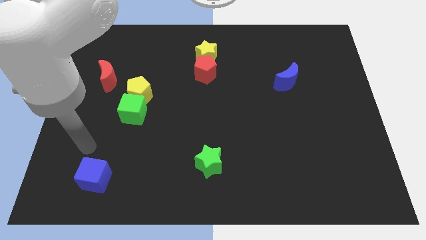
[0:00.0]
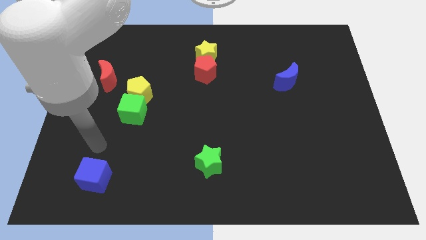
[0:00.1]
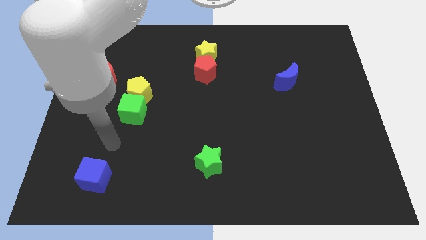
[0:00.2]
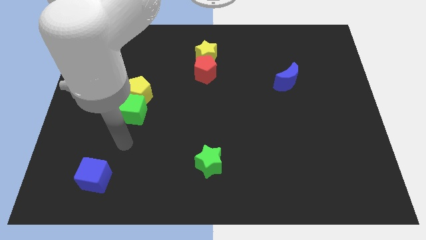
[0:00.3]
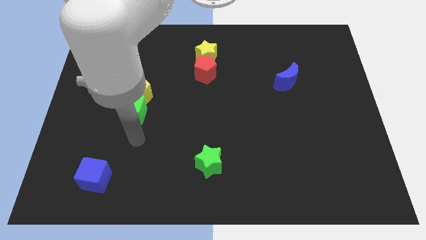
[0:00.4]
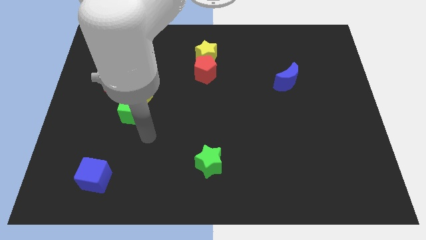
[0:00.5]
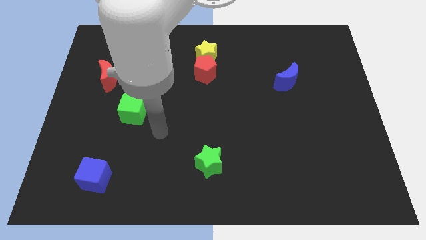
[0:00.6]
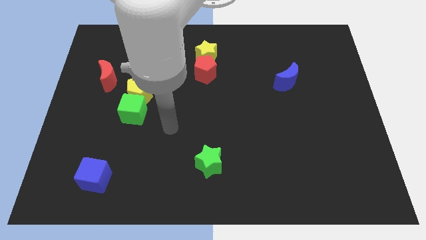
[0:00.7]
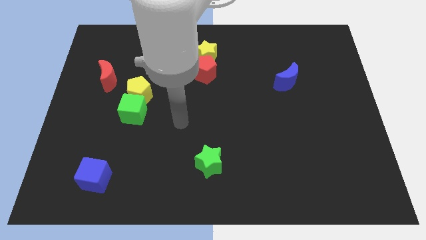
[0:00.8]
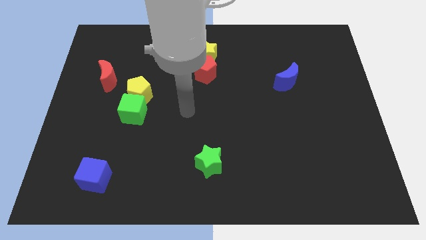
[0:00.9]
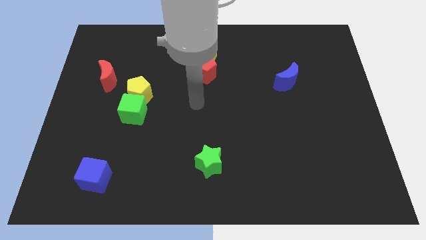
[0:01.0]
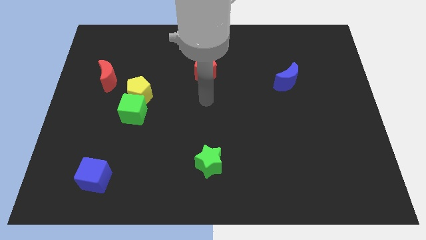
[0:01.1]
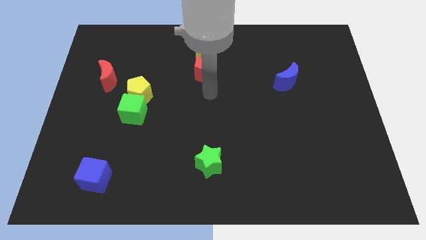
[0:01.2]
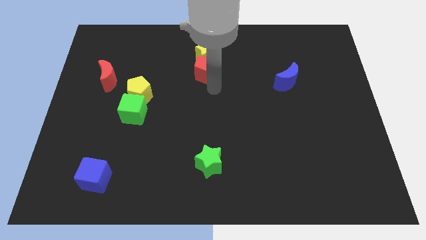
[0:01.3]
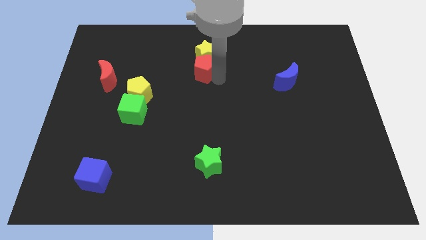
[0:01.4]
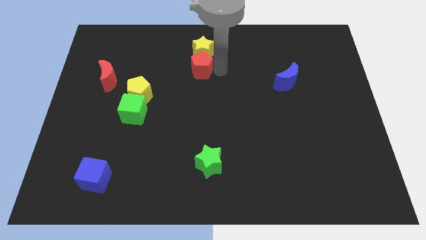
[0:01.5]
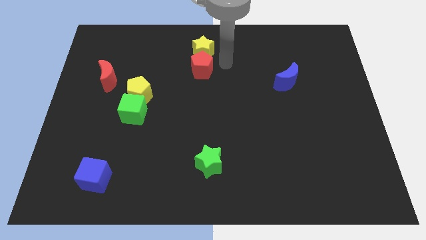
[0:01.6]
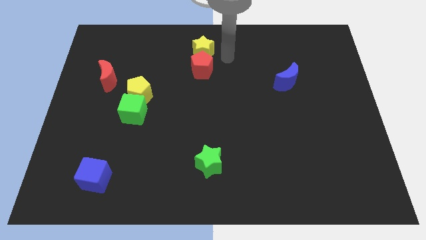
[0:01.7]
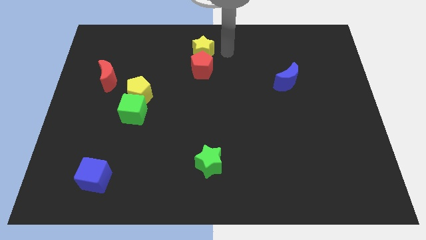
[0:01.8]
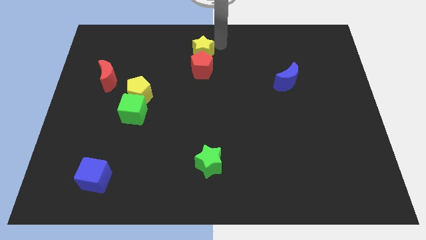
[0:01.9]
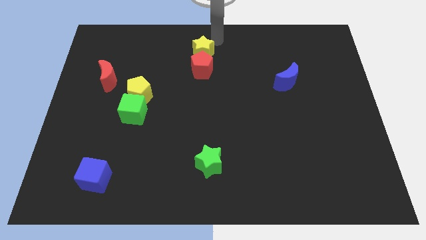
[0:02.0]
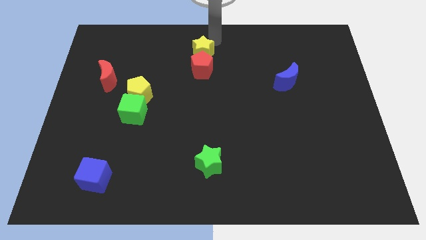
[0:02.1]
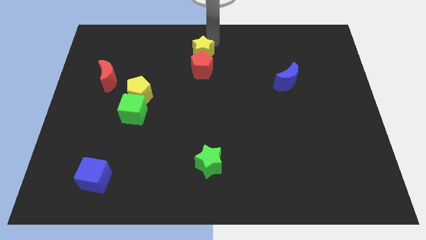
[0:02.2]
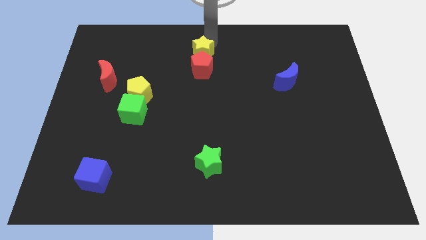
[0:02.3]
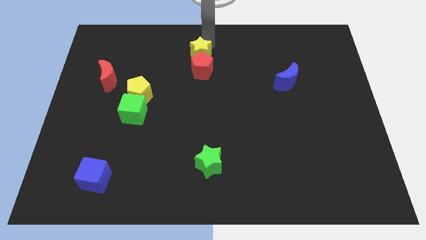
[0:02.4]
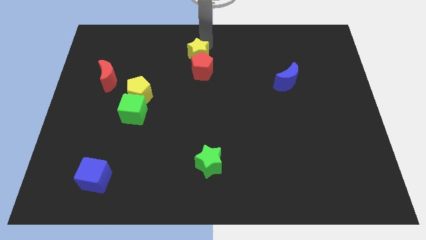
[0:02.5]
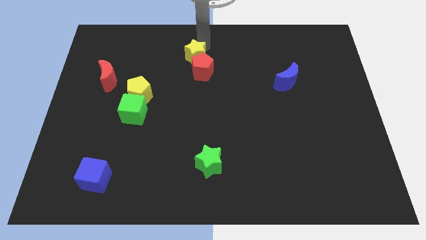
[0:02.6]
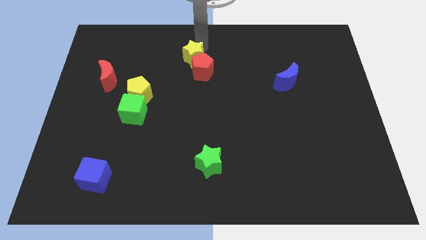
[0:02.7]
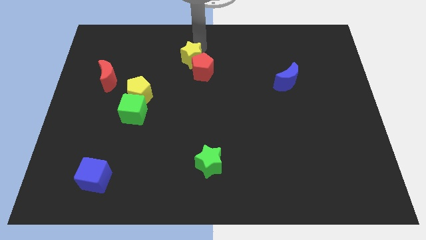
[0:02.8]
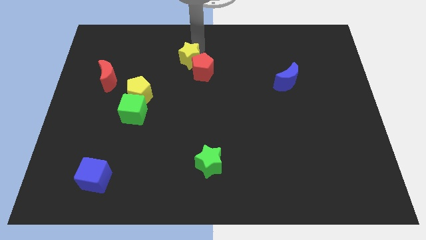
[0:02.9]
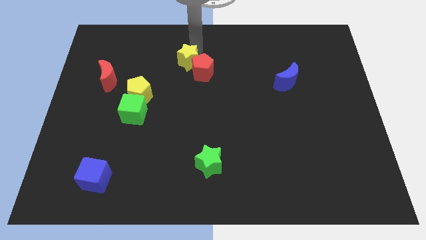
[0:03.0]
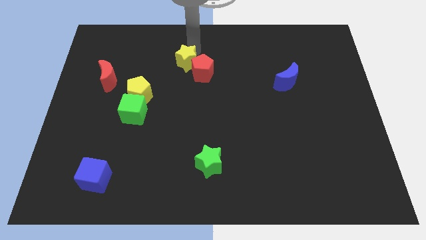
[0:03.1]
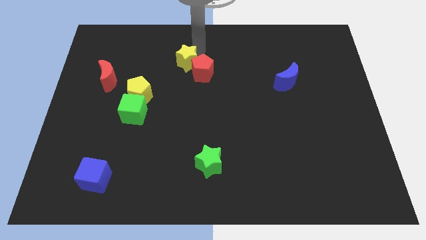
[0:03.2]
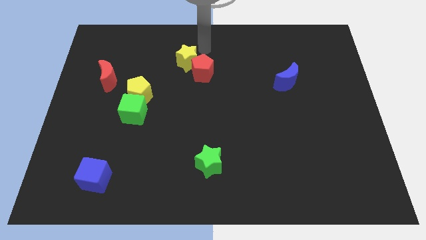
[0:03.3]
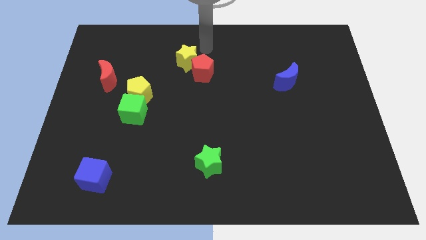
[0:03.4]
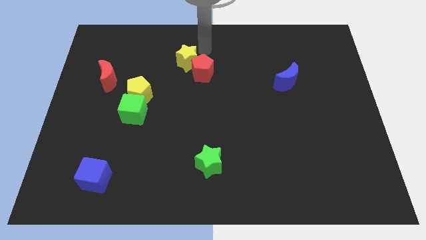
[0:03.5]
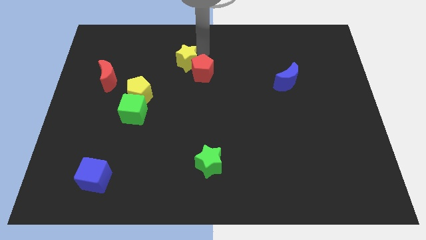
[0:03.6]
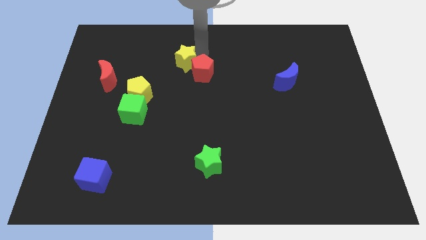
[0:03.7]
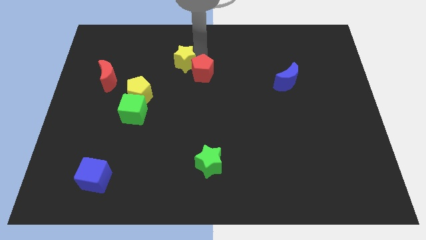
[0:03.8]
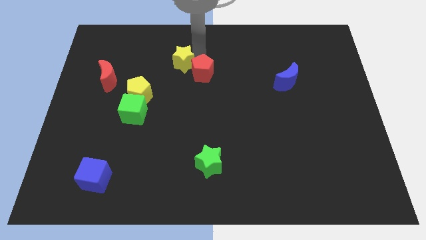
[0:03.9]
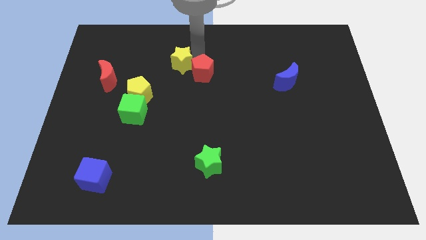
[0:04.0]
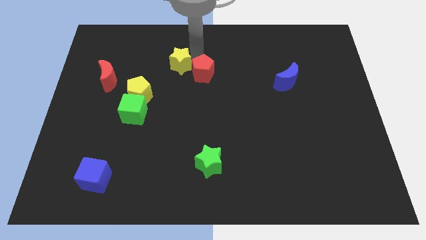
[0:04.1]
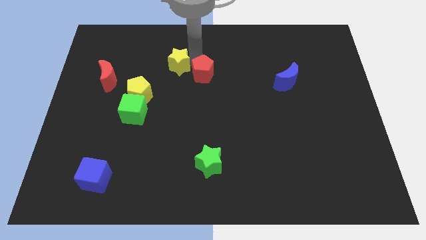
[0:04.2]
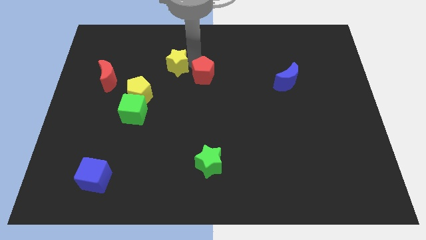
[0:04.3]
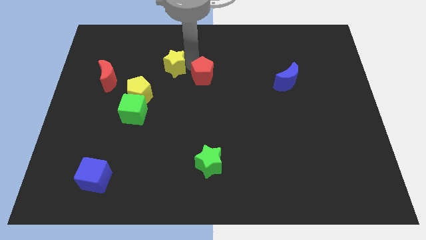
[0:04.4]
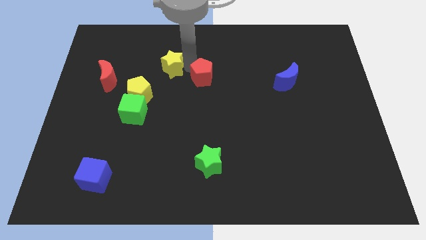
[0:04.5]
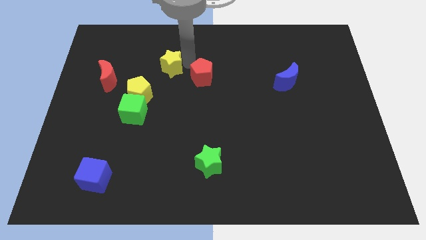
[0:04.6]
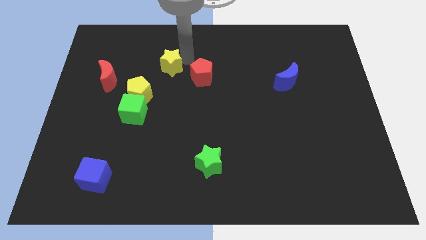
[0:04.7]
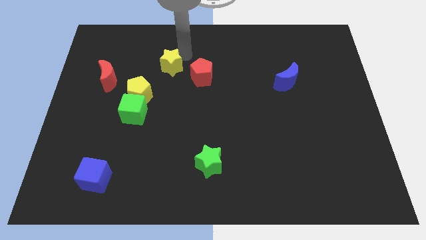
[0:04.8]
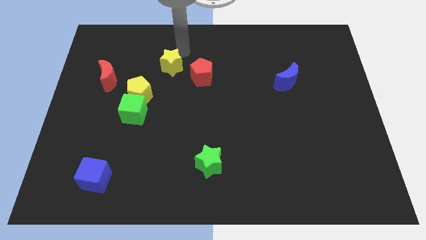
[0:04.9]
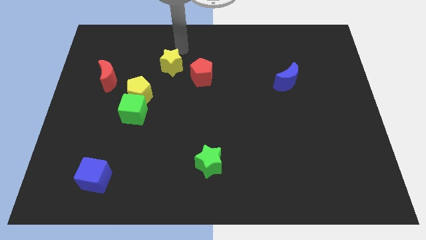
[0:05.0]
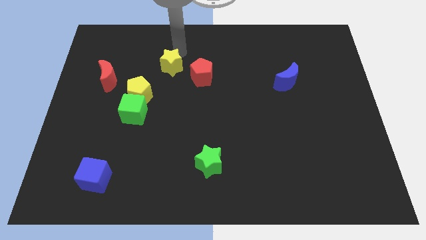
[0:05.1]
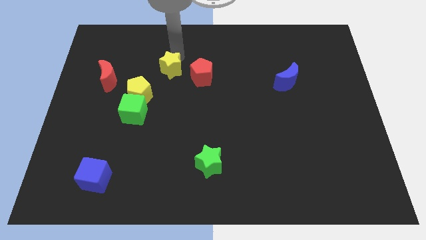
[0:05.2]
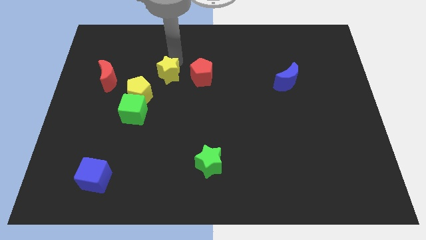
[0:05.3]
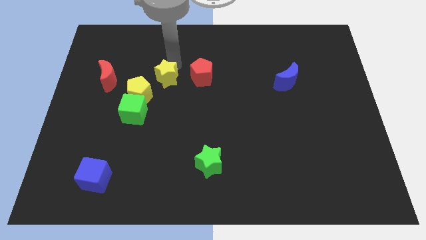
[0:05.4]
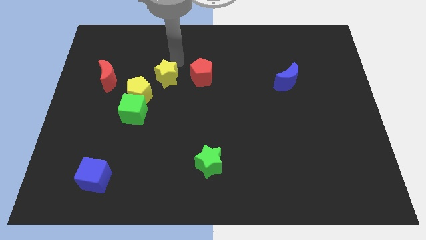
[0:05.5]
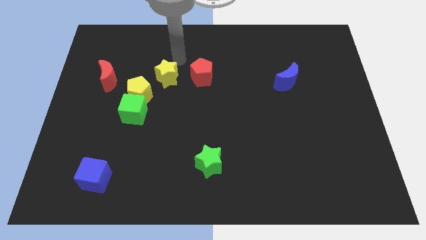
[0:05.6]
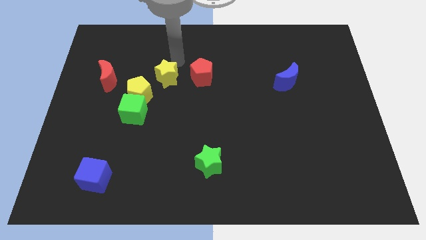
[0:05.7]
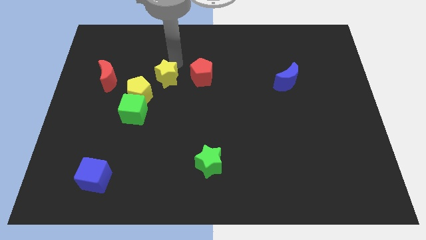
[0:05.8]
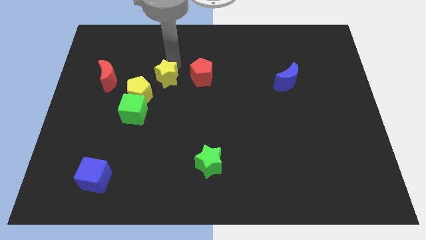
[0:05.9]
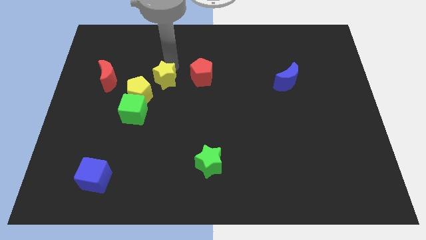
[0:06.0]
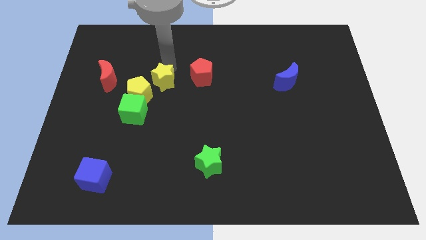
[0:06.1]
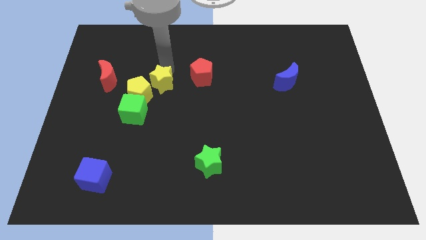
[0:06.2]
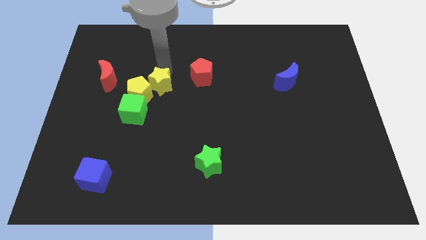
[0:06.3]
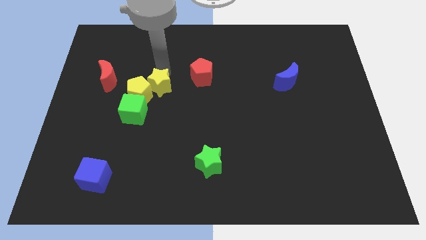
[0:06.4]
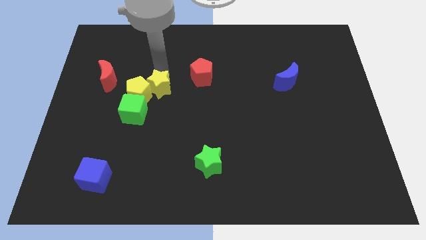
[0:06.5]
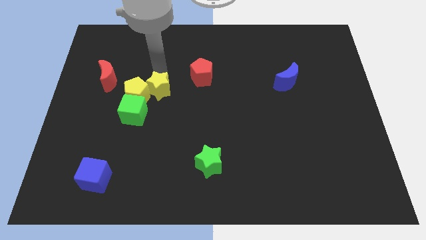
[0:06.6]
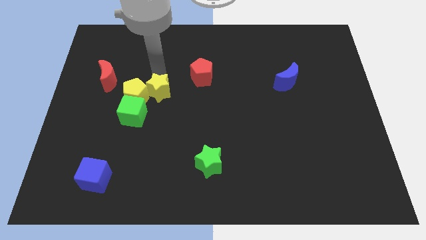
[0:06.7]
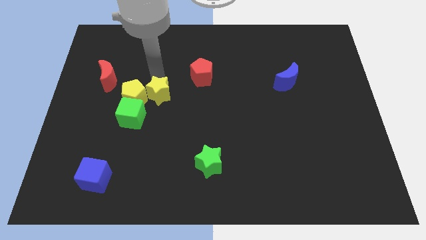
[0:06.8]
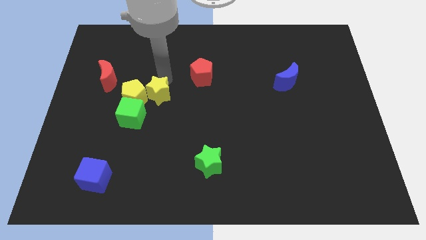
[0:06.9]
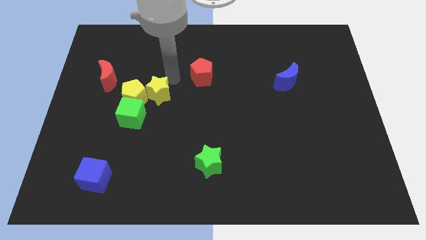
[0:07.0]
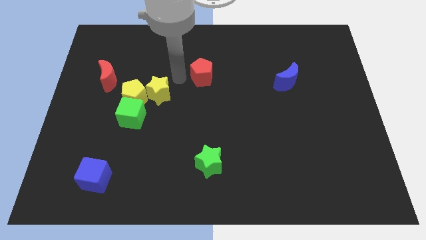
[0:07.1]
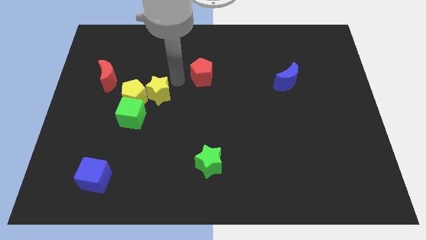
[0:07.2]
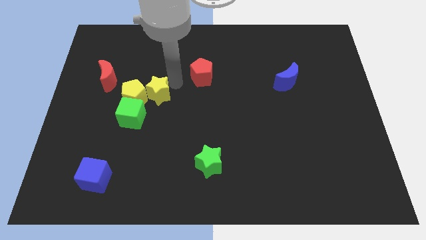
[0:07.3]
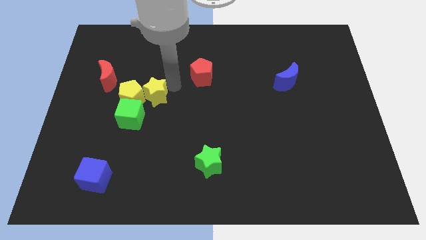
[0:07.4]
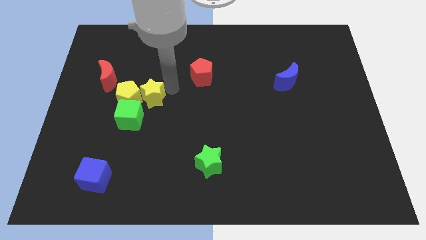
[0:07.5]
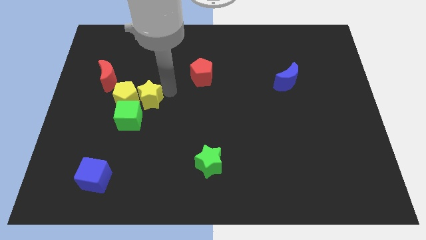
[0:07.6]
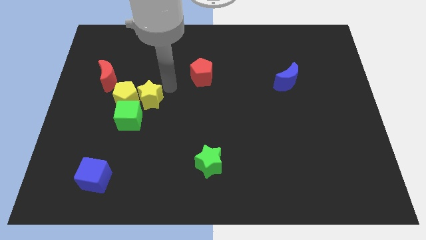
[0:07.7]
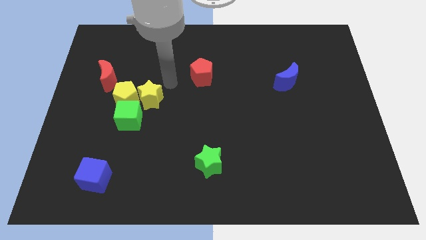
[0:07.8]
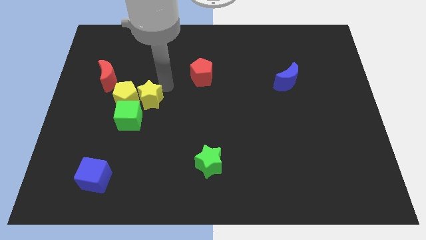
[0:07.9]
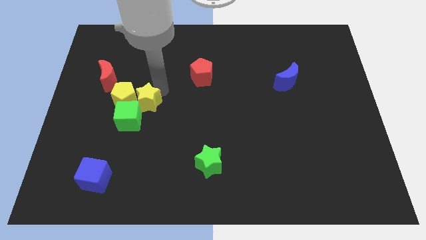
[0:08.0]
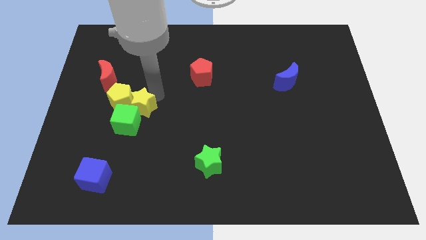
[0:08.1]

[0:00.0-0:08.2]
push the yellow star next to the green cube
